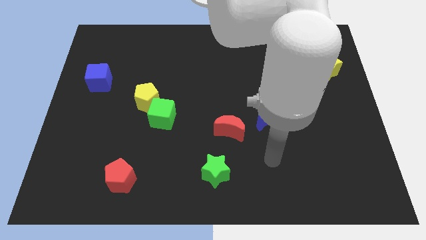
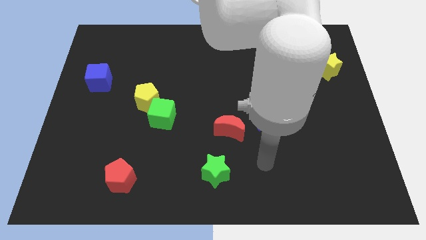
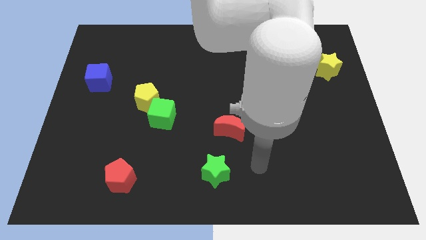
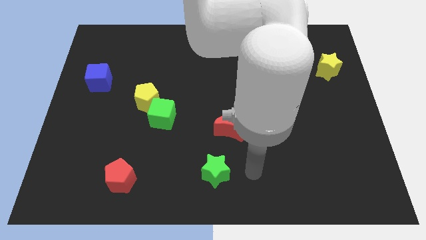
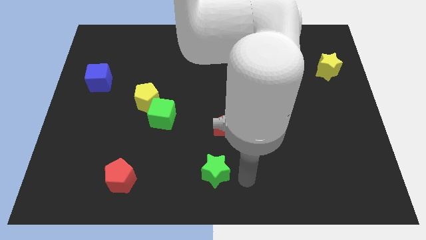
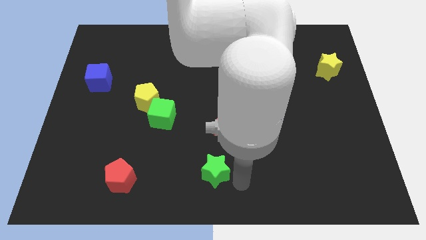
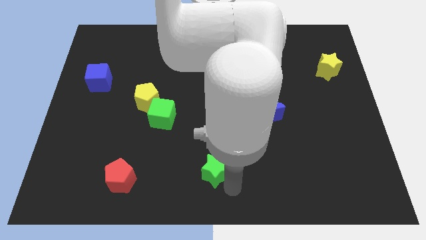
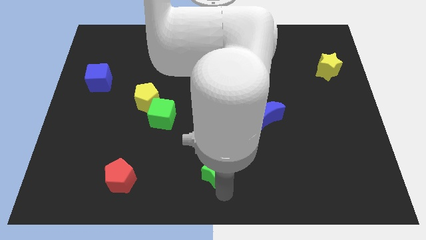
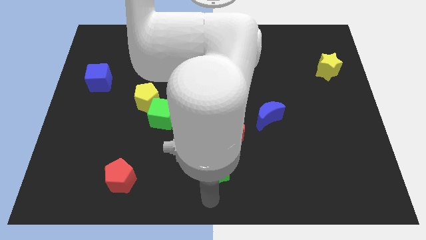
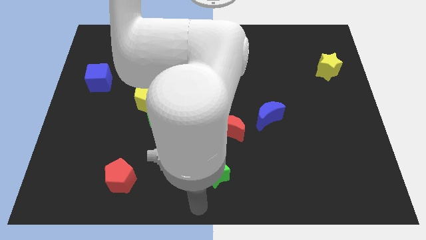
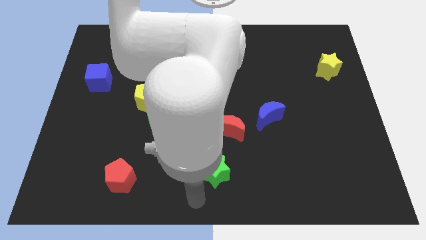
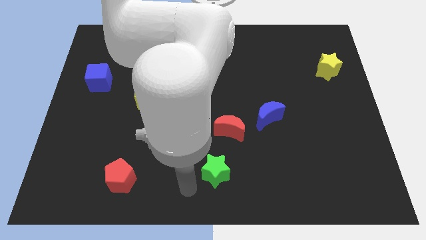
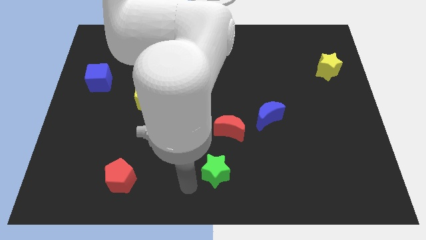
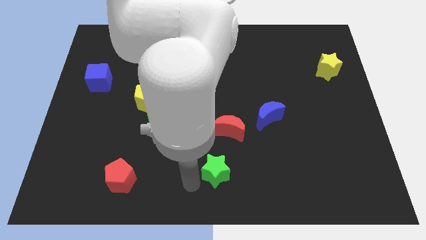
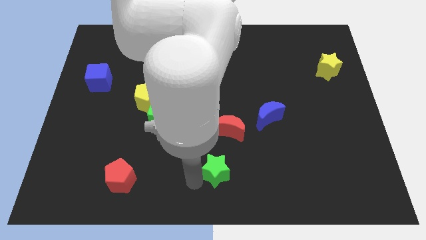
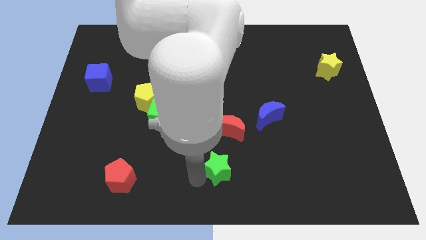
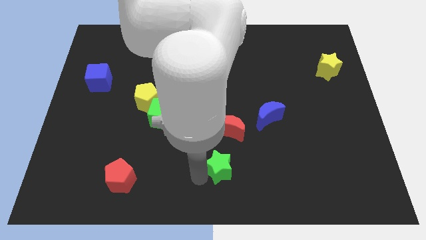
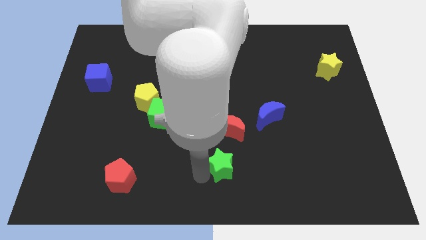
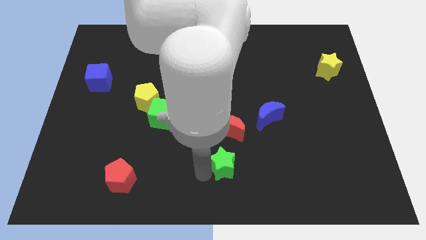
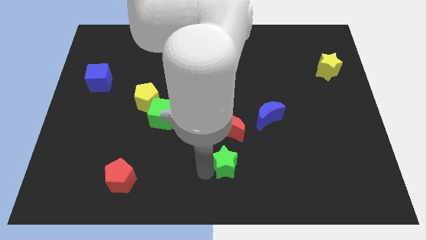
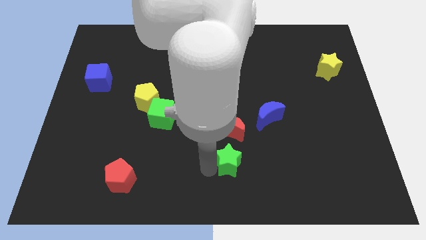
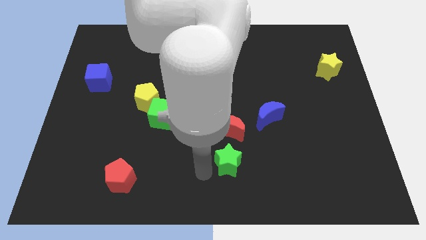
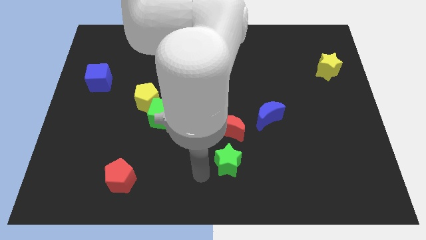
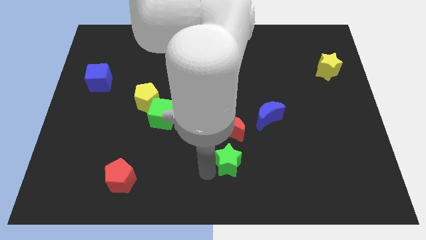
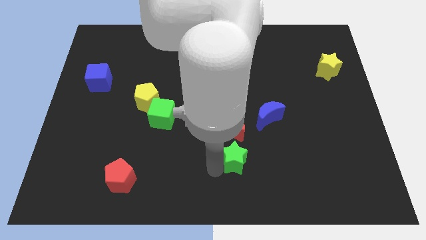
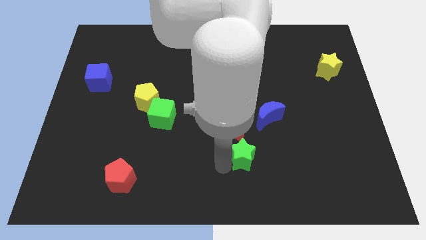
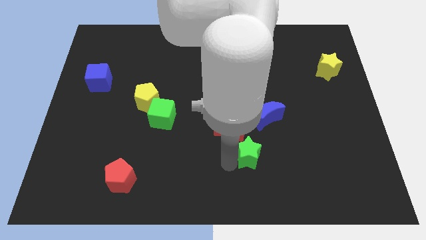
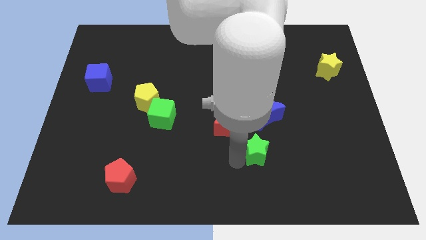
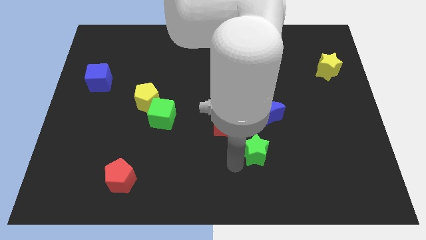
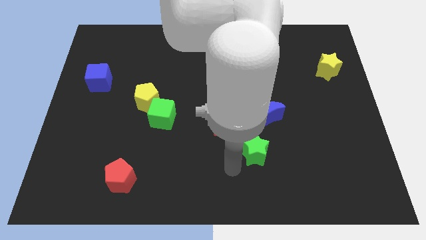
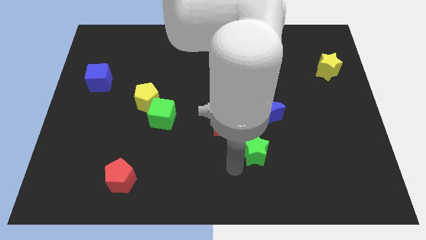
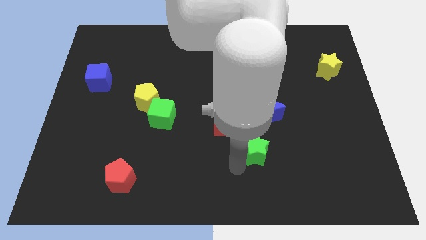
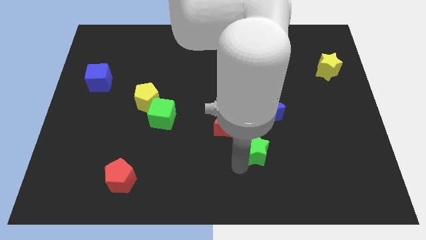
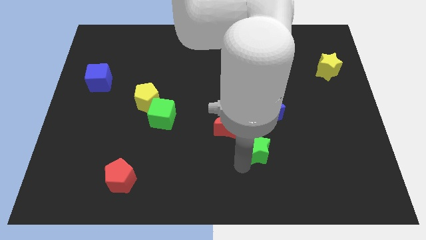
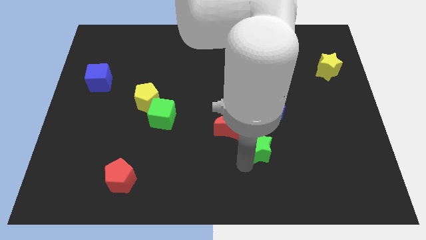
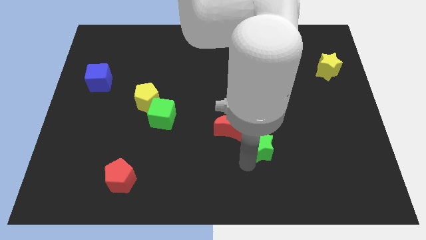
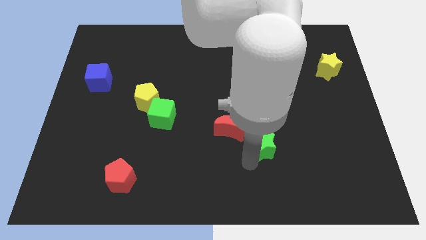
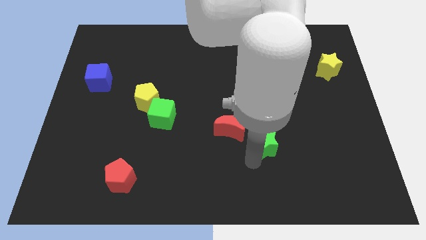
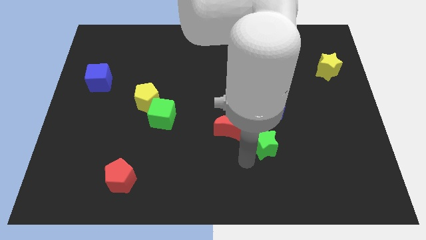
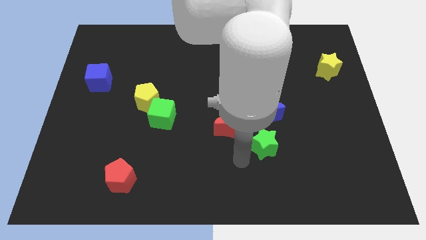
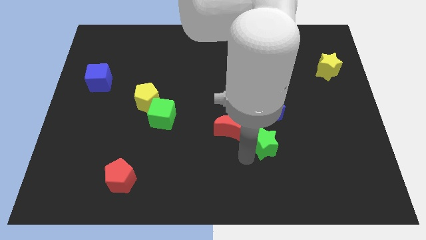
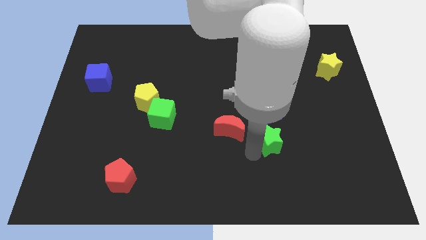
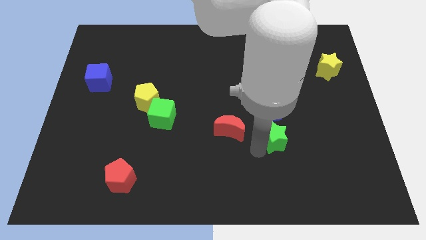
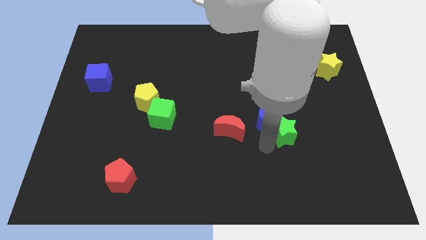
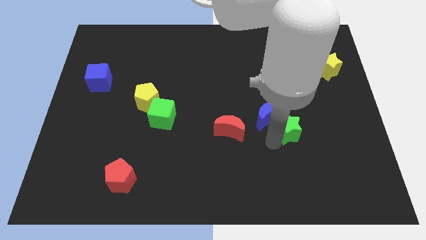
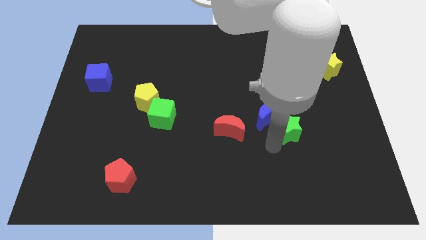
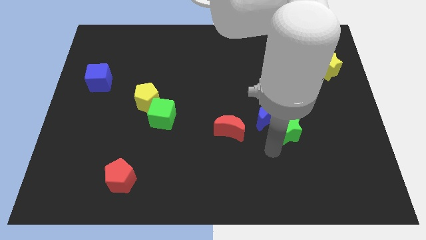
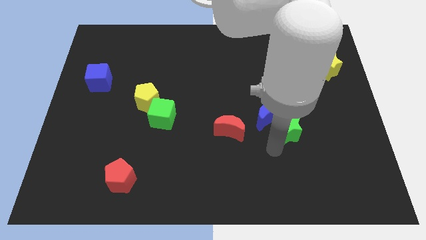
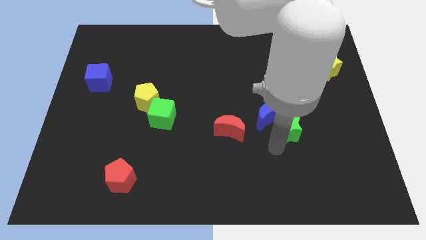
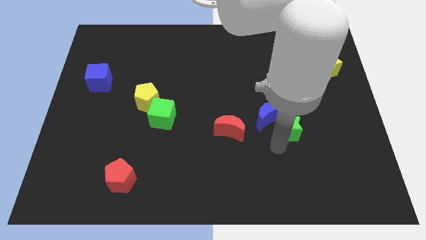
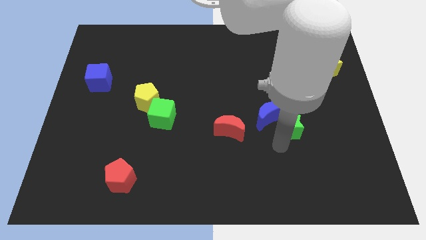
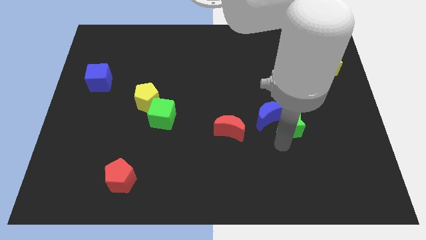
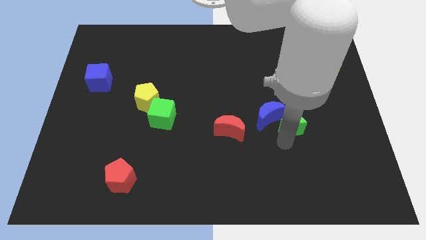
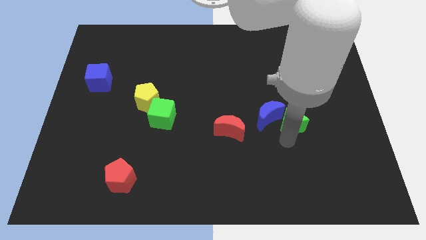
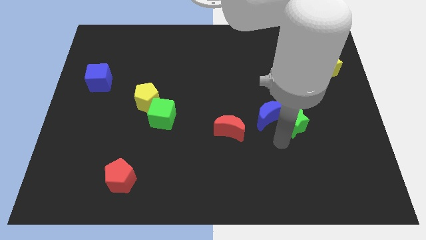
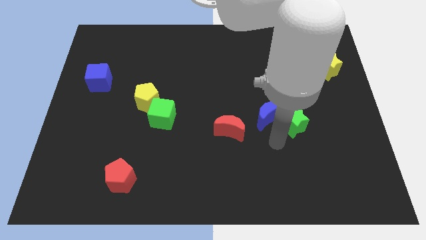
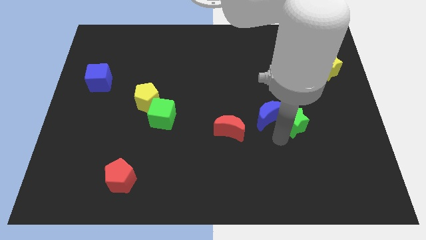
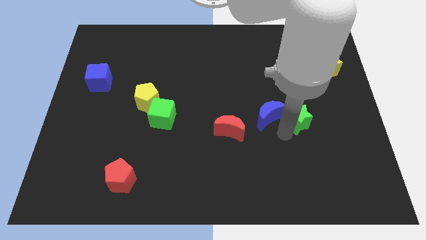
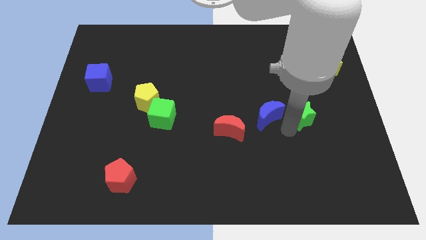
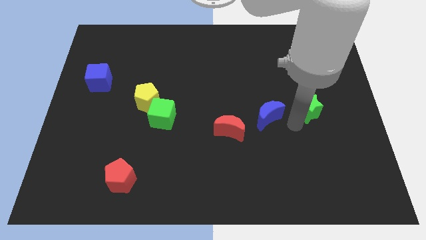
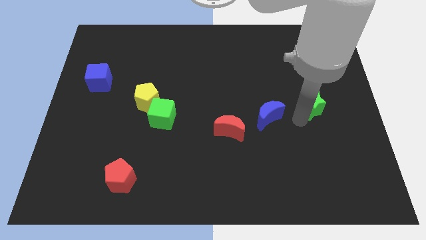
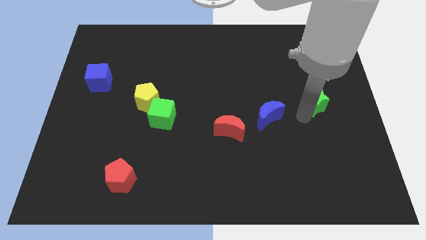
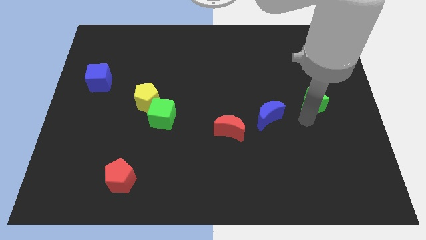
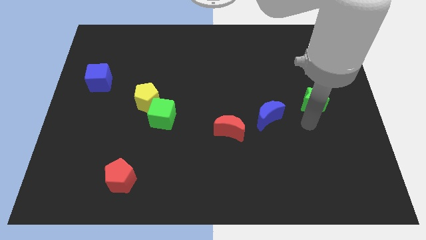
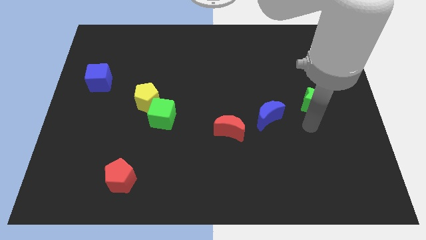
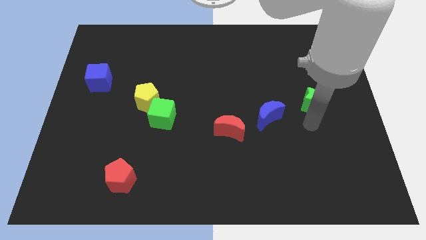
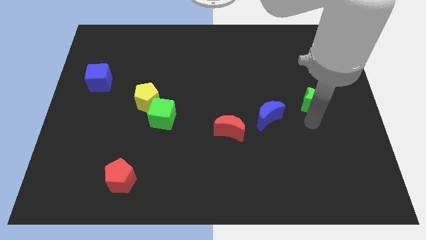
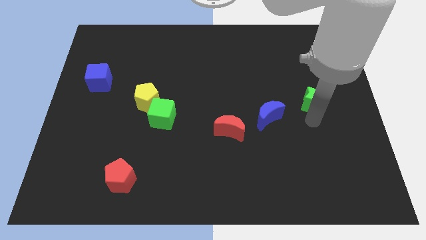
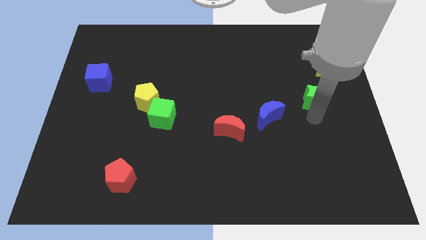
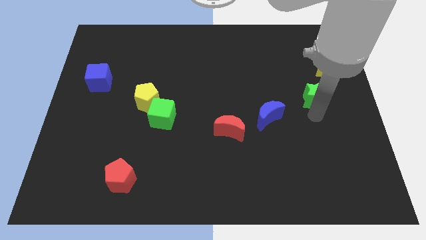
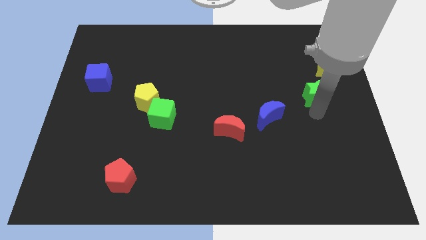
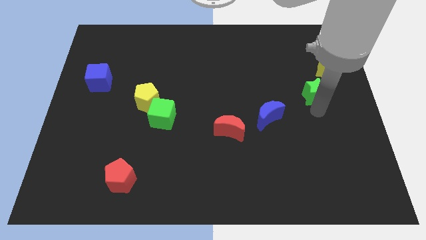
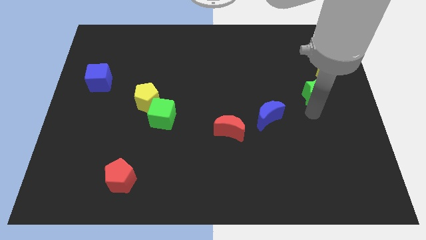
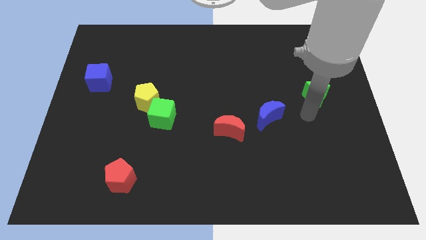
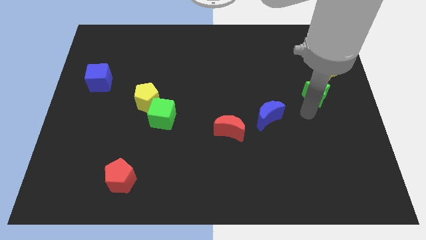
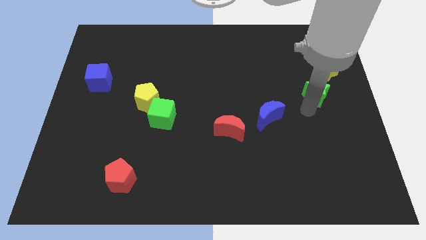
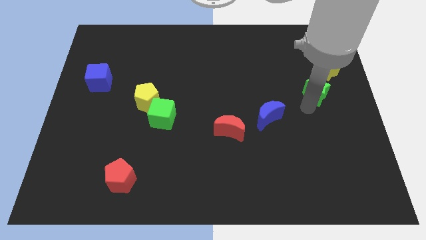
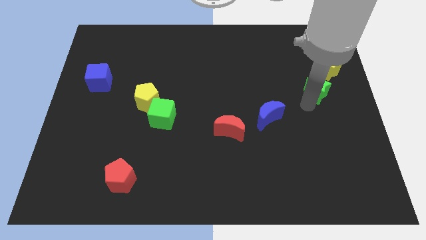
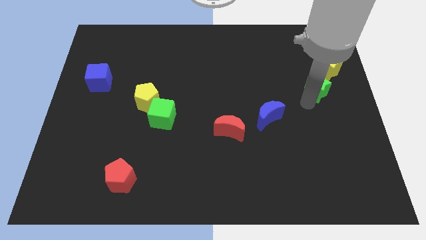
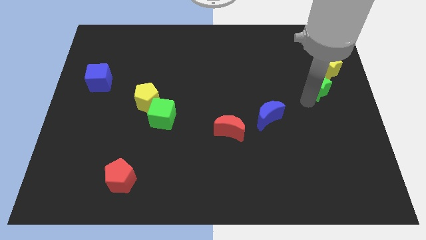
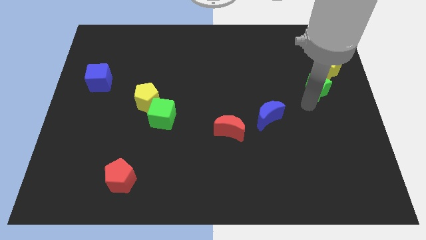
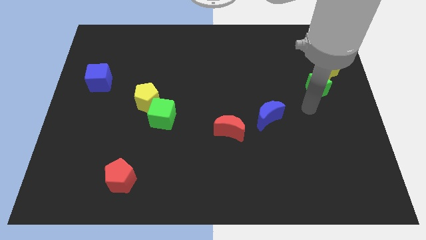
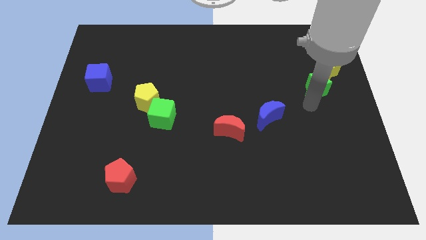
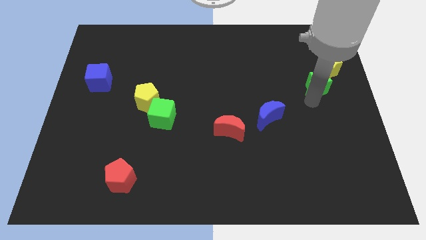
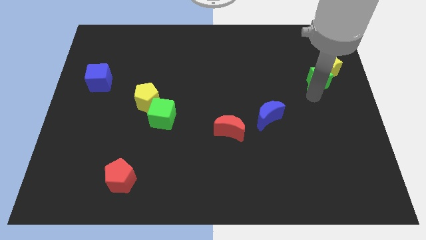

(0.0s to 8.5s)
move the green star next to the yellow star
